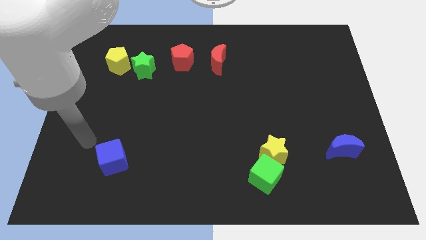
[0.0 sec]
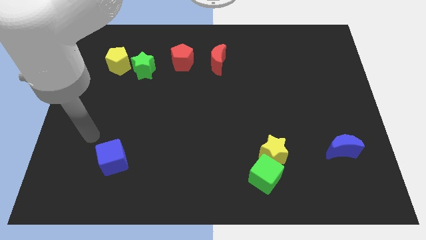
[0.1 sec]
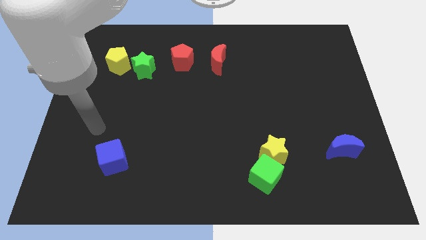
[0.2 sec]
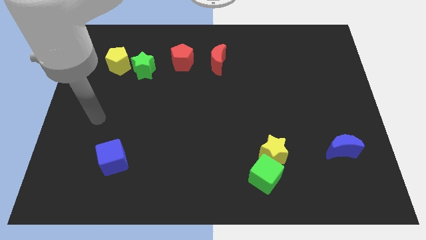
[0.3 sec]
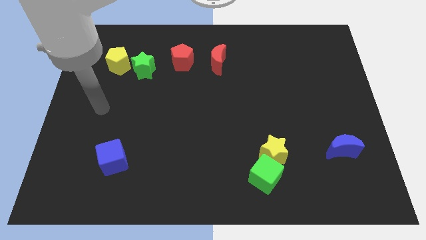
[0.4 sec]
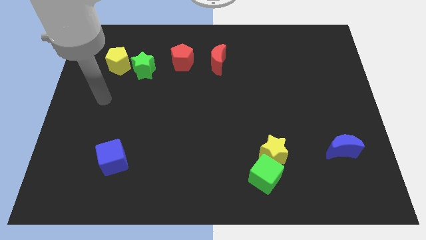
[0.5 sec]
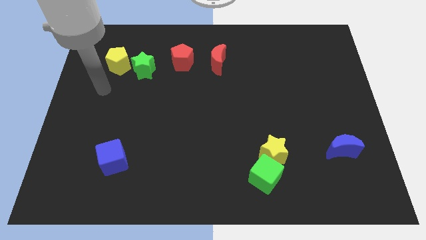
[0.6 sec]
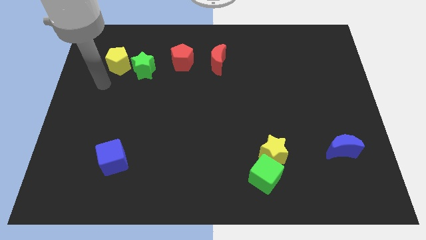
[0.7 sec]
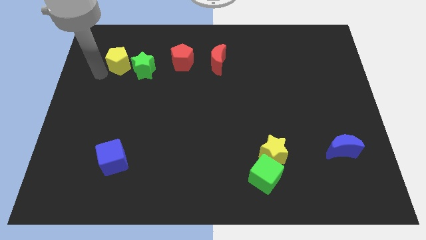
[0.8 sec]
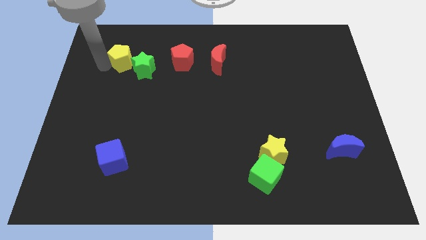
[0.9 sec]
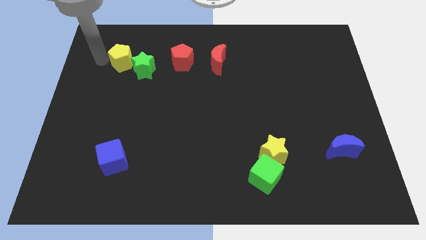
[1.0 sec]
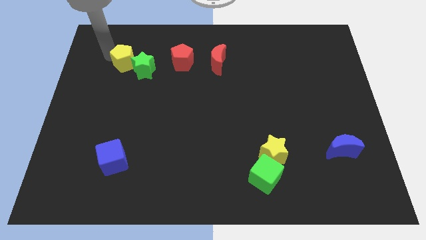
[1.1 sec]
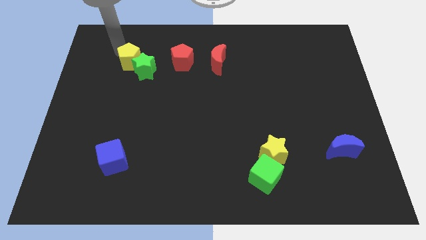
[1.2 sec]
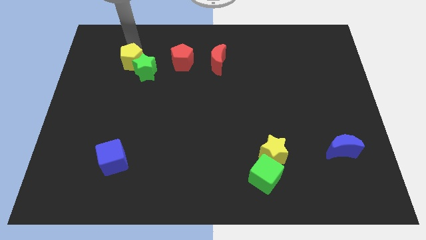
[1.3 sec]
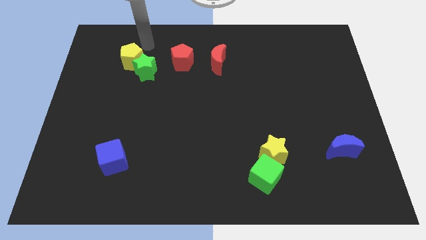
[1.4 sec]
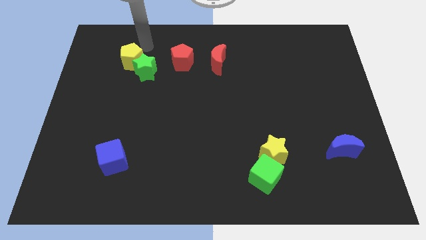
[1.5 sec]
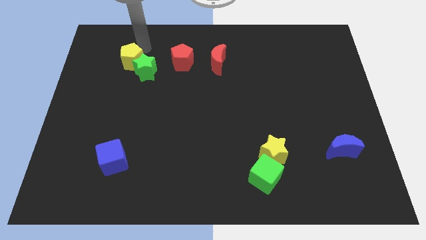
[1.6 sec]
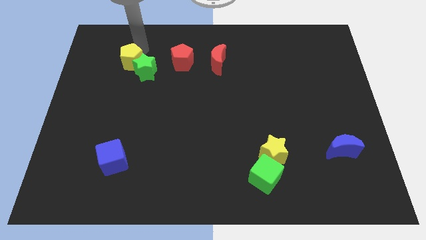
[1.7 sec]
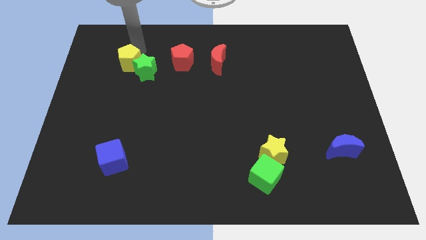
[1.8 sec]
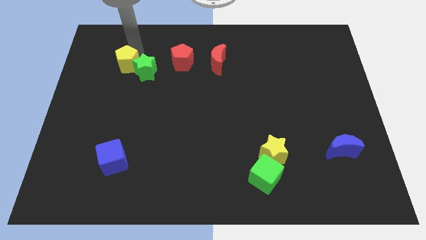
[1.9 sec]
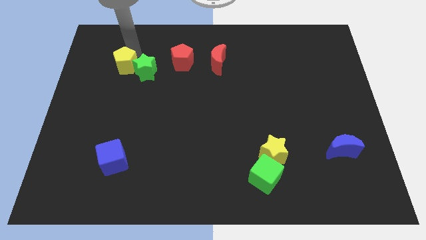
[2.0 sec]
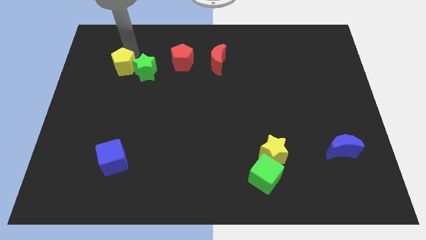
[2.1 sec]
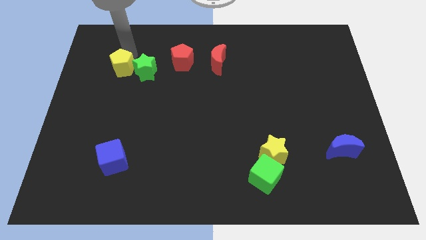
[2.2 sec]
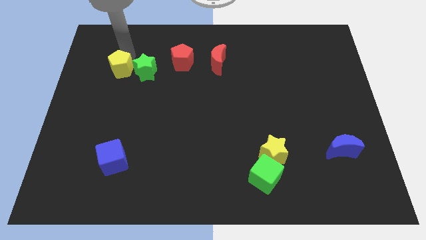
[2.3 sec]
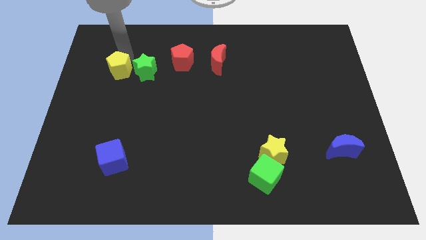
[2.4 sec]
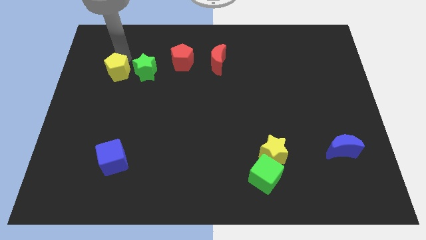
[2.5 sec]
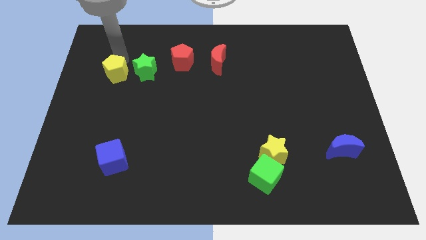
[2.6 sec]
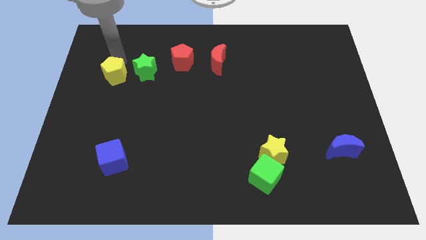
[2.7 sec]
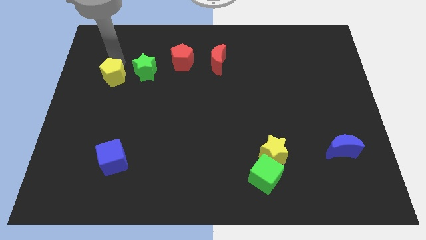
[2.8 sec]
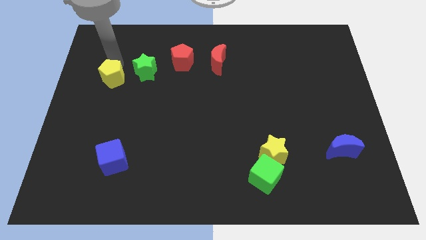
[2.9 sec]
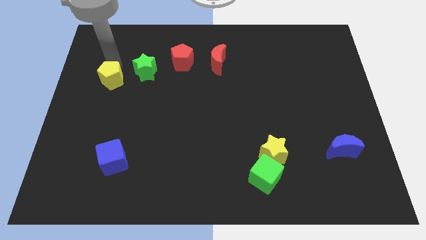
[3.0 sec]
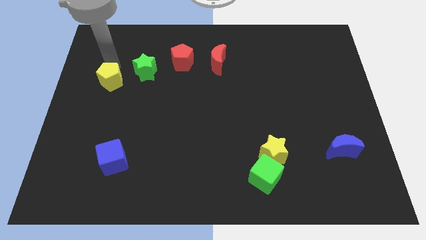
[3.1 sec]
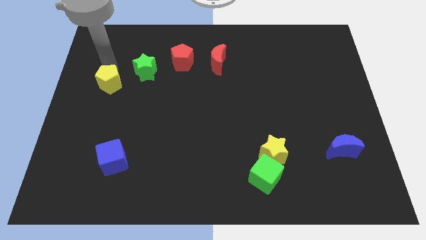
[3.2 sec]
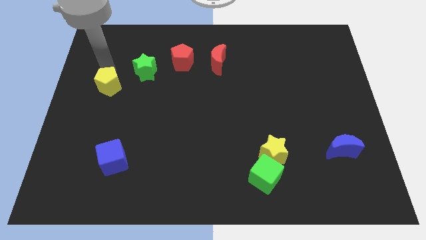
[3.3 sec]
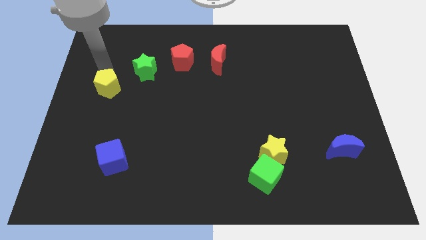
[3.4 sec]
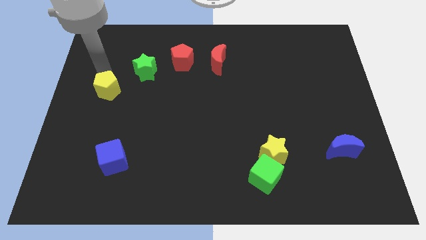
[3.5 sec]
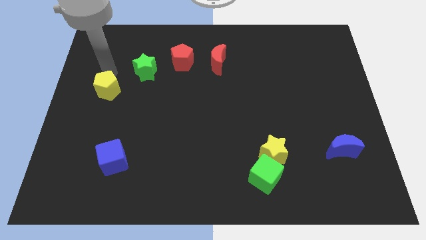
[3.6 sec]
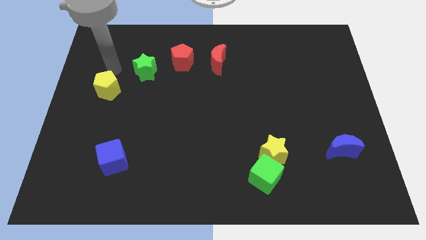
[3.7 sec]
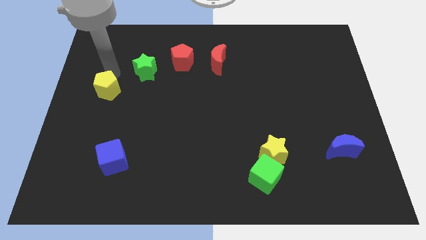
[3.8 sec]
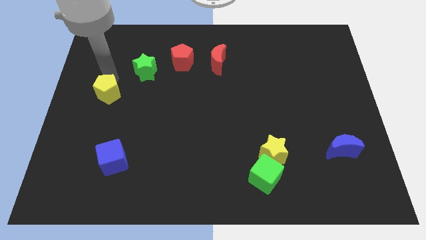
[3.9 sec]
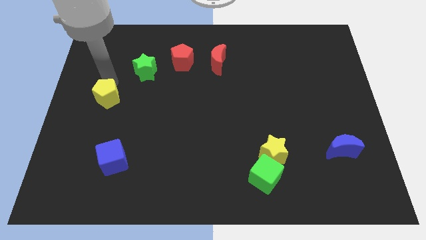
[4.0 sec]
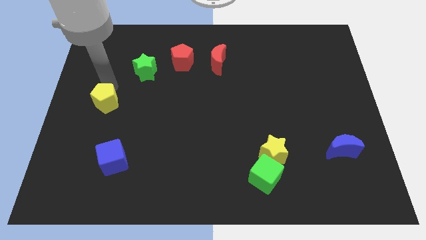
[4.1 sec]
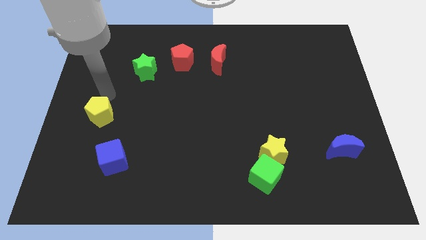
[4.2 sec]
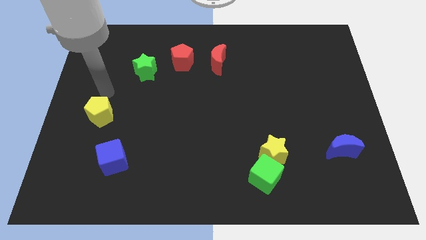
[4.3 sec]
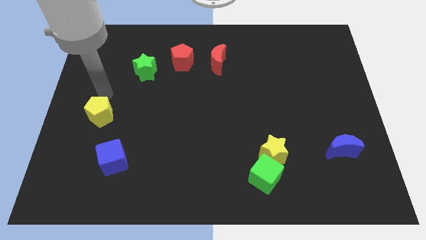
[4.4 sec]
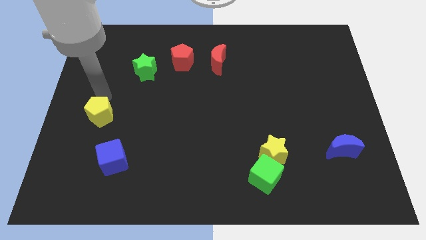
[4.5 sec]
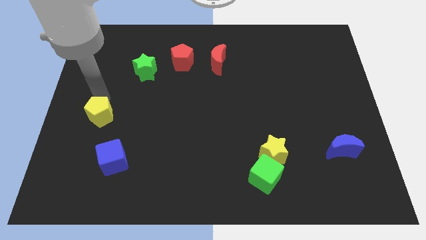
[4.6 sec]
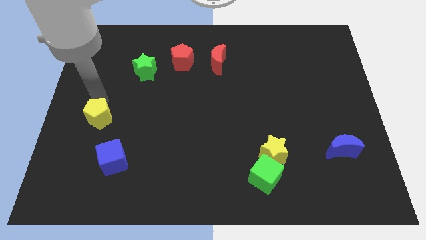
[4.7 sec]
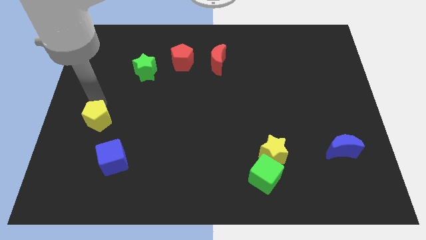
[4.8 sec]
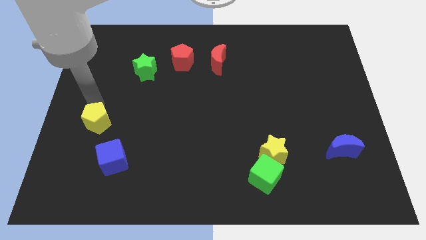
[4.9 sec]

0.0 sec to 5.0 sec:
slide the yellow pentagon to the top left side of the blue cube

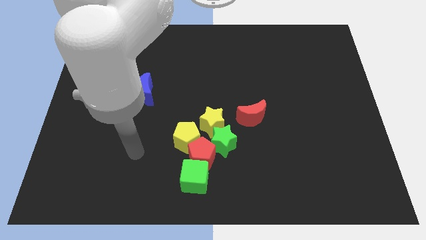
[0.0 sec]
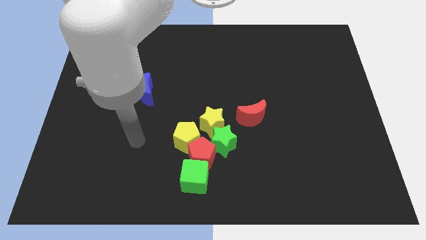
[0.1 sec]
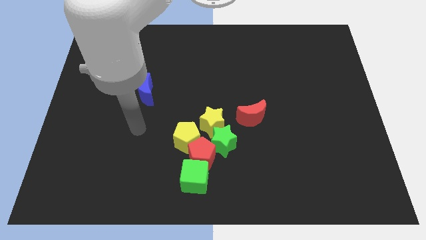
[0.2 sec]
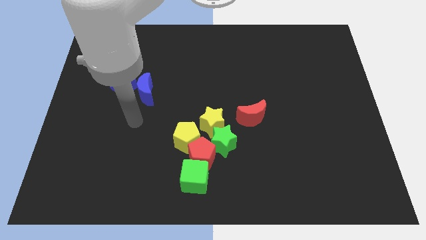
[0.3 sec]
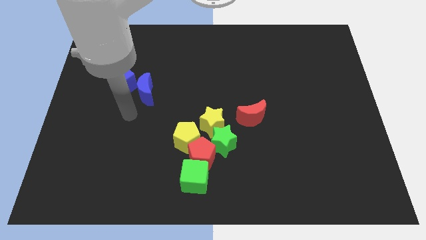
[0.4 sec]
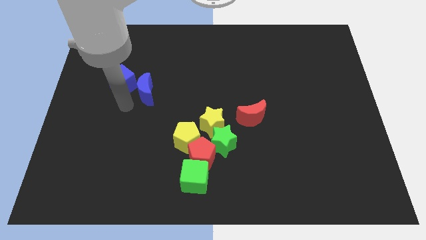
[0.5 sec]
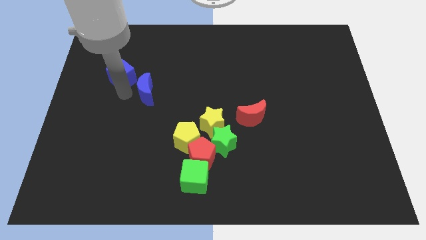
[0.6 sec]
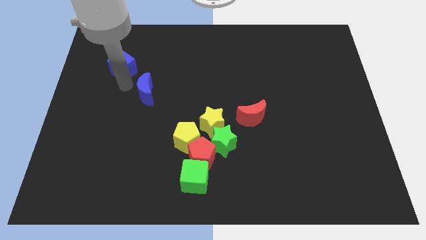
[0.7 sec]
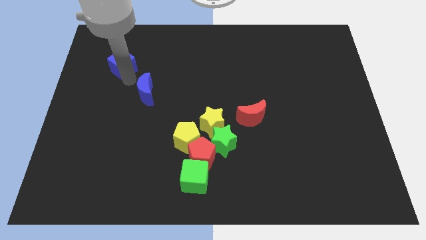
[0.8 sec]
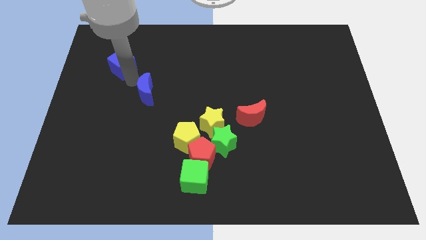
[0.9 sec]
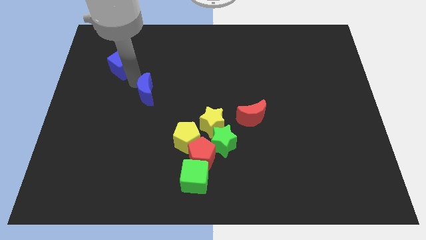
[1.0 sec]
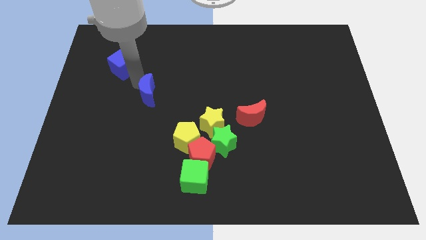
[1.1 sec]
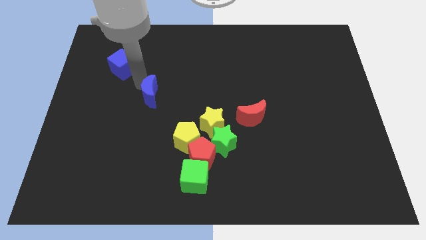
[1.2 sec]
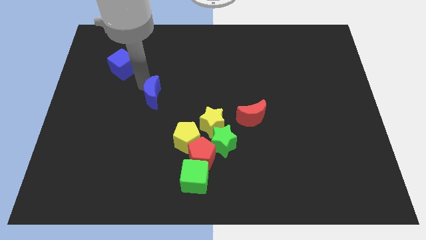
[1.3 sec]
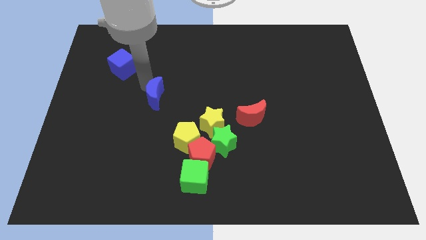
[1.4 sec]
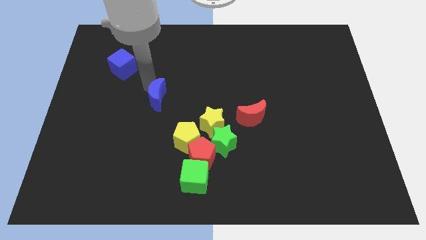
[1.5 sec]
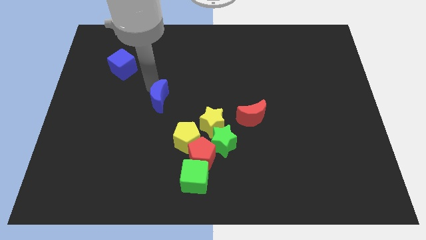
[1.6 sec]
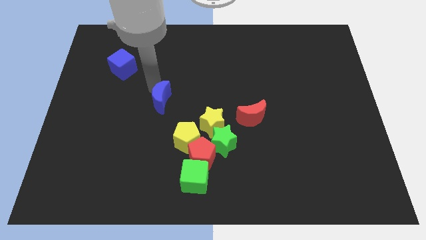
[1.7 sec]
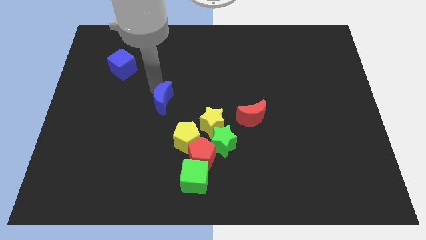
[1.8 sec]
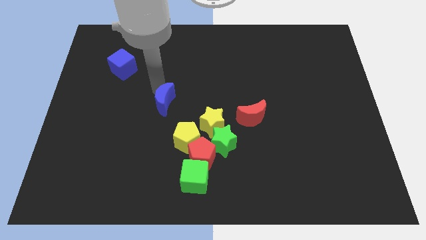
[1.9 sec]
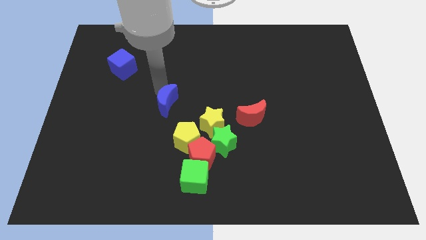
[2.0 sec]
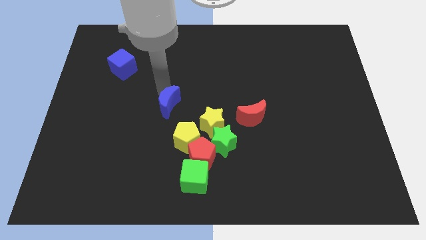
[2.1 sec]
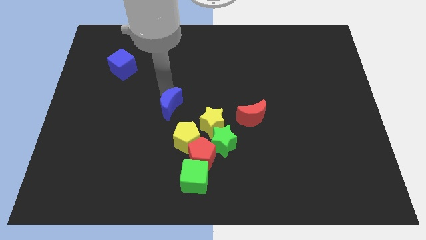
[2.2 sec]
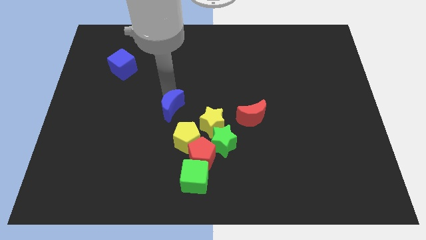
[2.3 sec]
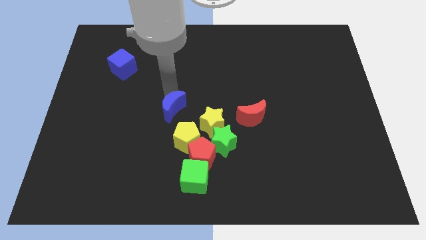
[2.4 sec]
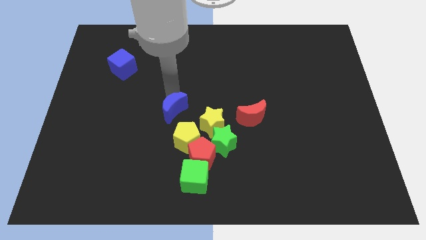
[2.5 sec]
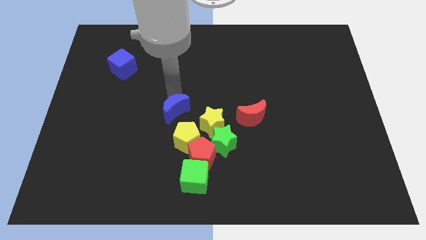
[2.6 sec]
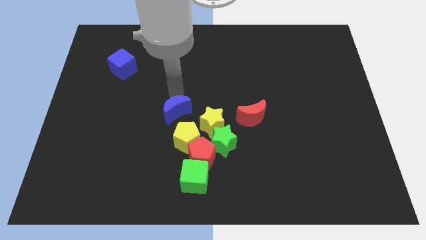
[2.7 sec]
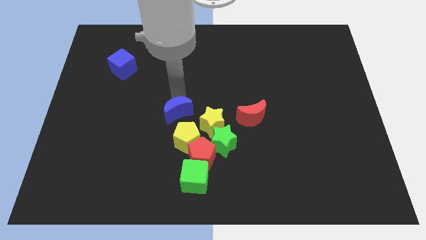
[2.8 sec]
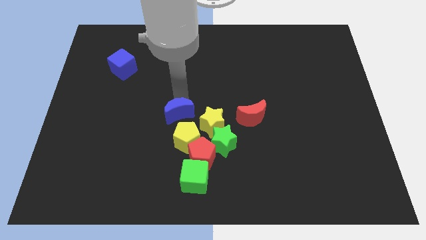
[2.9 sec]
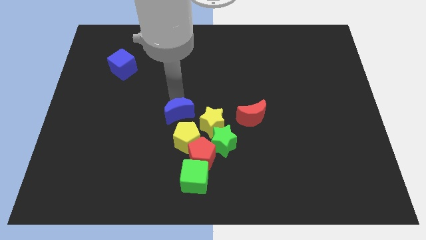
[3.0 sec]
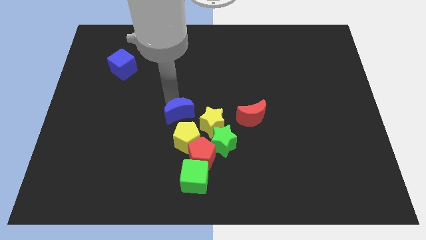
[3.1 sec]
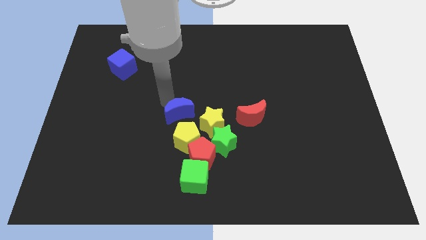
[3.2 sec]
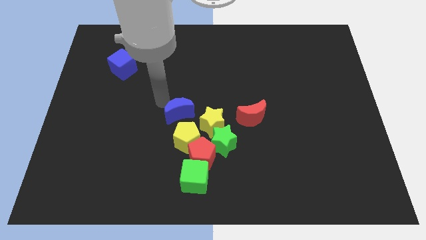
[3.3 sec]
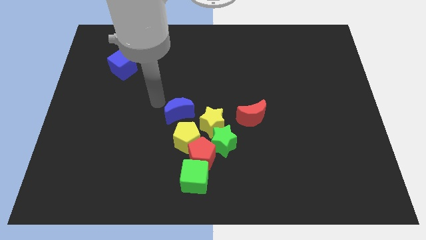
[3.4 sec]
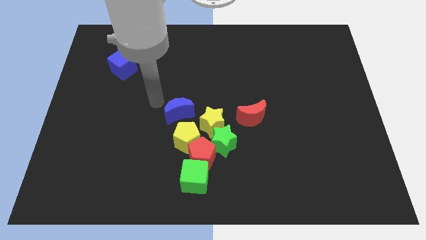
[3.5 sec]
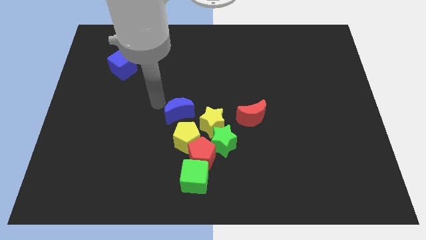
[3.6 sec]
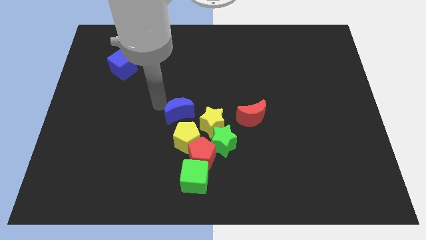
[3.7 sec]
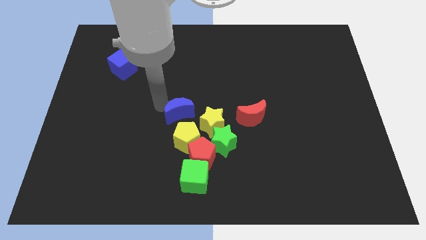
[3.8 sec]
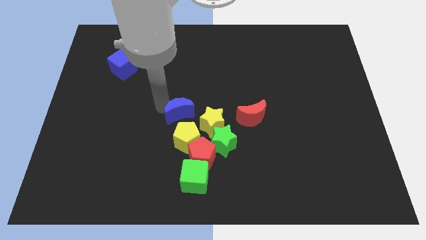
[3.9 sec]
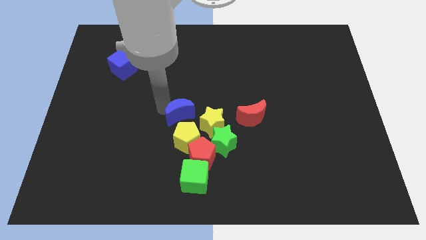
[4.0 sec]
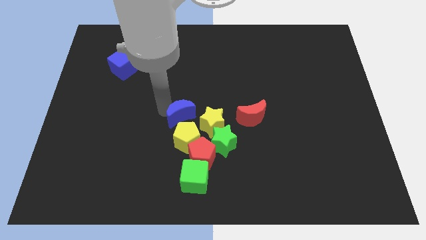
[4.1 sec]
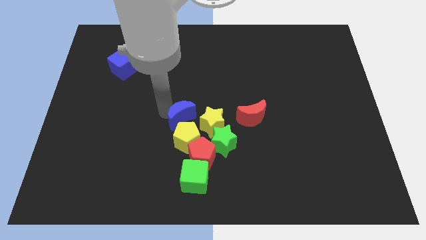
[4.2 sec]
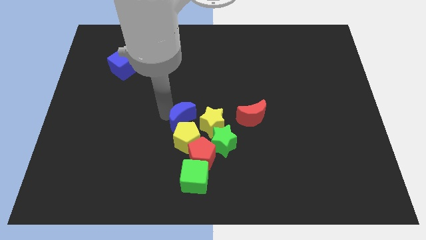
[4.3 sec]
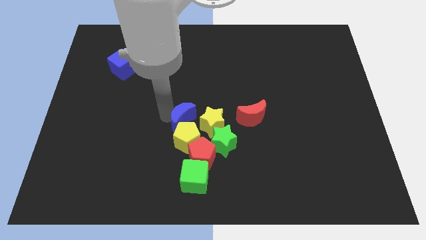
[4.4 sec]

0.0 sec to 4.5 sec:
push the blue moon above the green cube
